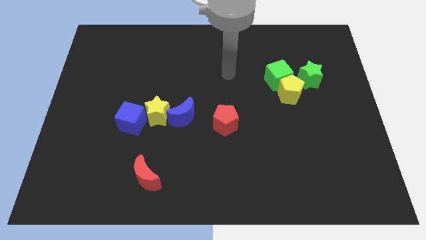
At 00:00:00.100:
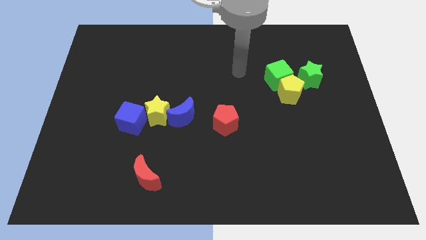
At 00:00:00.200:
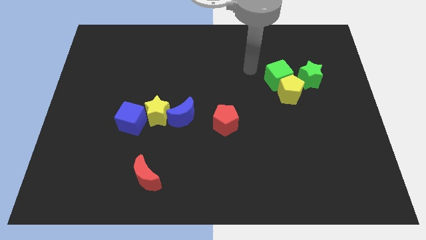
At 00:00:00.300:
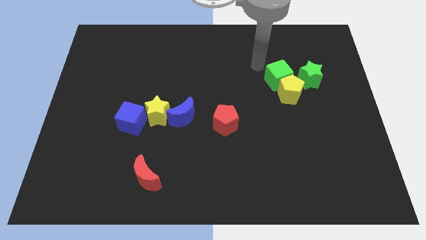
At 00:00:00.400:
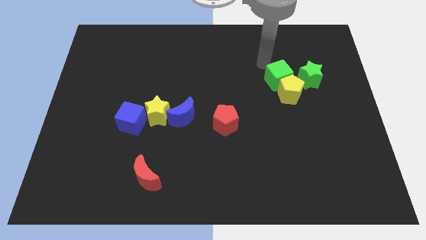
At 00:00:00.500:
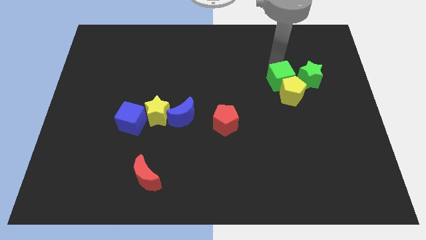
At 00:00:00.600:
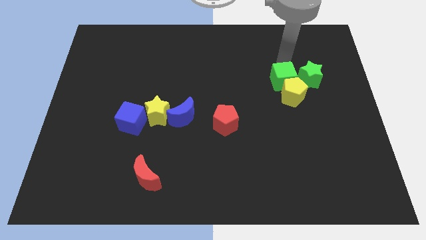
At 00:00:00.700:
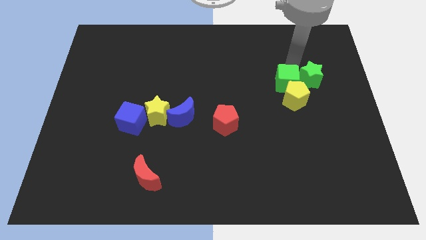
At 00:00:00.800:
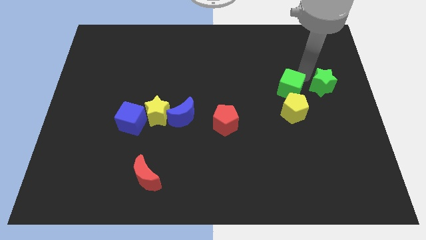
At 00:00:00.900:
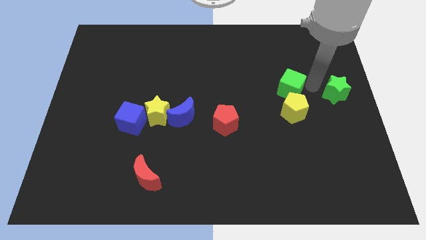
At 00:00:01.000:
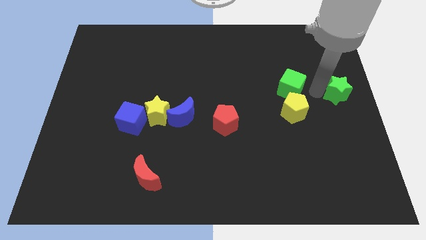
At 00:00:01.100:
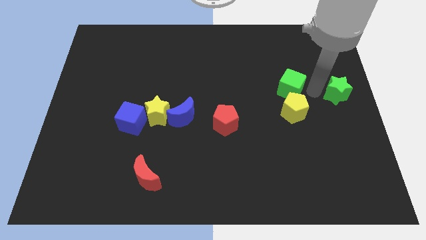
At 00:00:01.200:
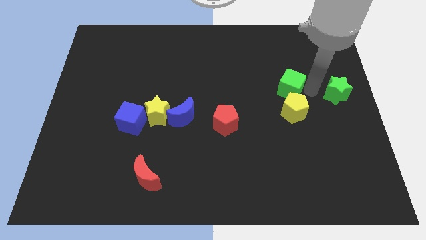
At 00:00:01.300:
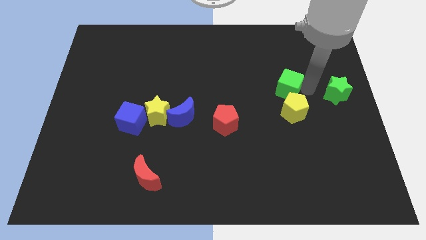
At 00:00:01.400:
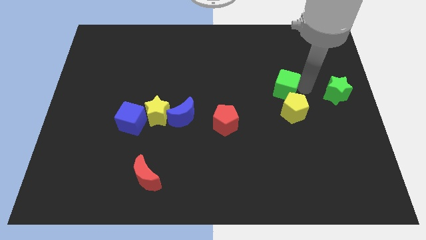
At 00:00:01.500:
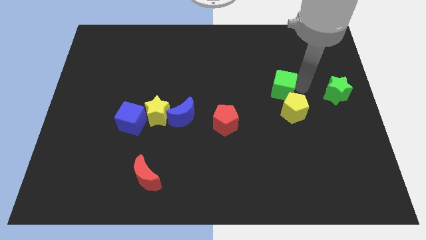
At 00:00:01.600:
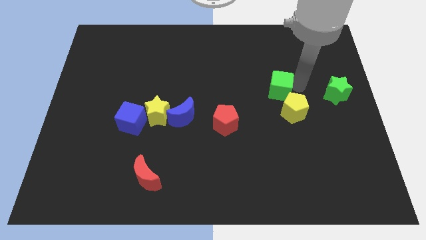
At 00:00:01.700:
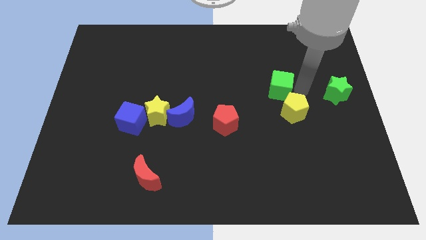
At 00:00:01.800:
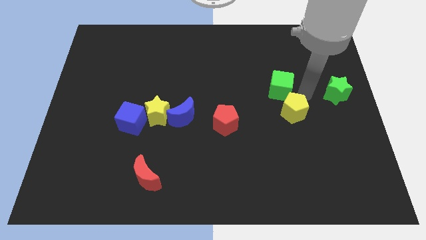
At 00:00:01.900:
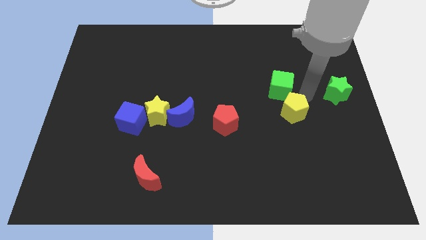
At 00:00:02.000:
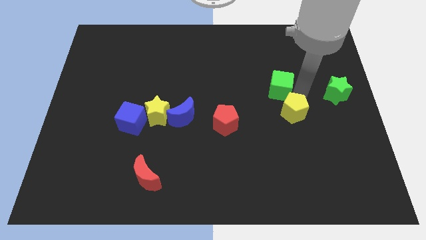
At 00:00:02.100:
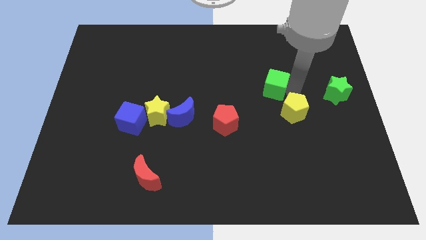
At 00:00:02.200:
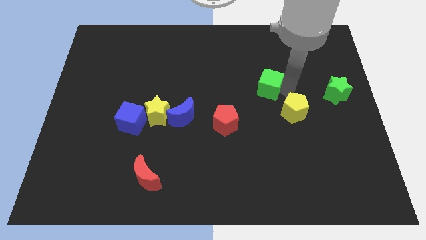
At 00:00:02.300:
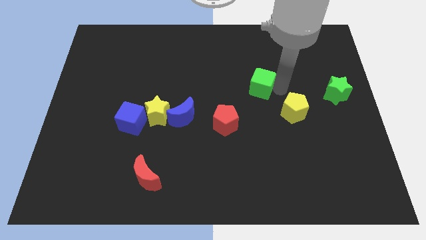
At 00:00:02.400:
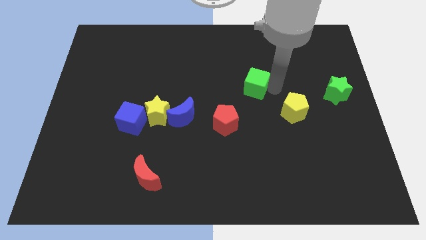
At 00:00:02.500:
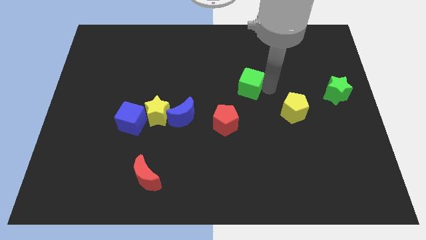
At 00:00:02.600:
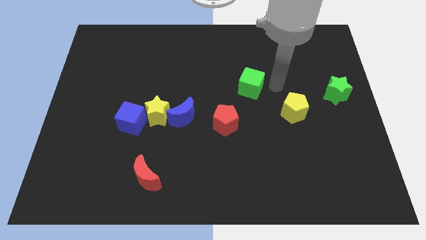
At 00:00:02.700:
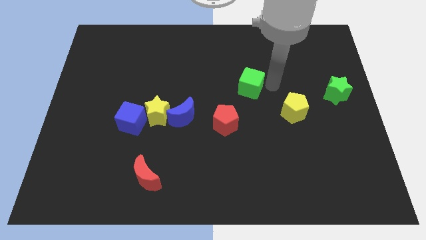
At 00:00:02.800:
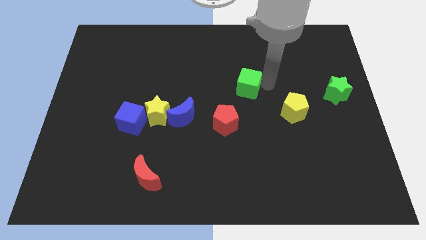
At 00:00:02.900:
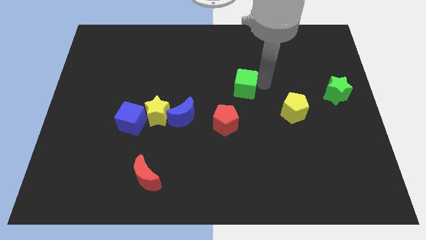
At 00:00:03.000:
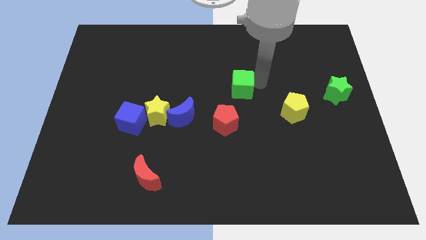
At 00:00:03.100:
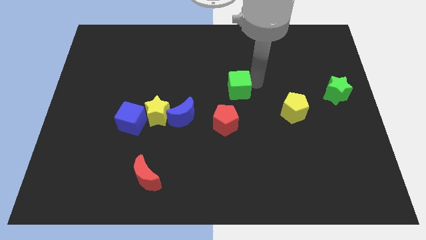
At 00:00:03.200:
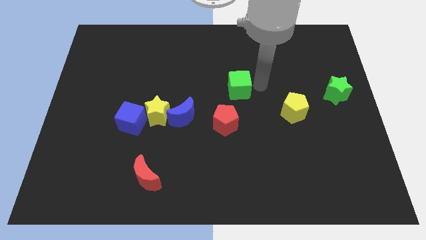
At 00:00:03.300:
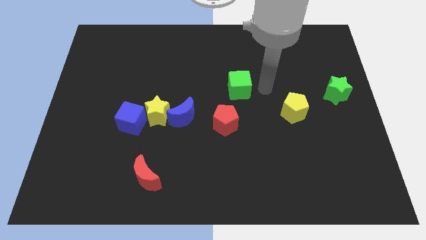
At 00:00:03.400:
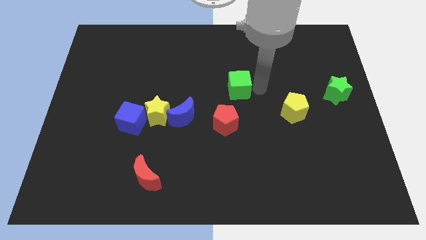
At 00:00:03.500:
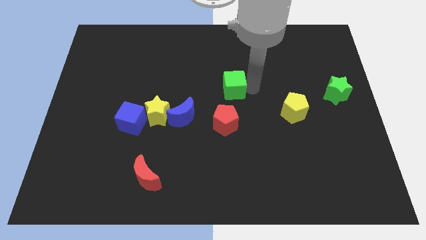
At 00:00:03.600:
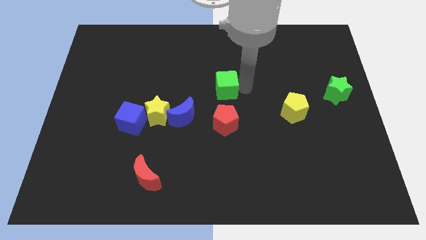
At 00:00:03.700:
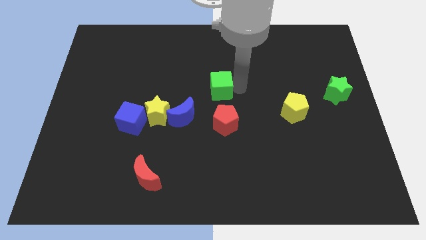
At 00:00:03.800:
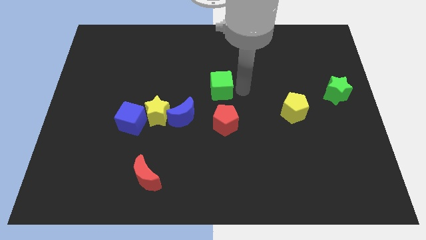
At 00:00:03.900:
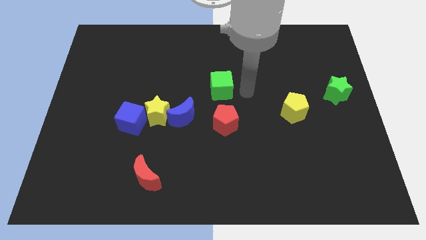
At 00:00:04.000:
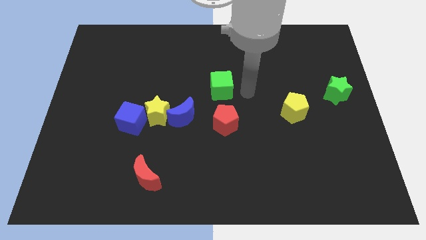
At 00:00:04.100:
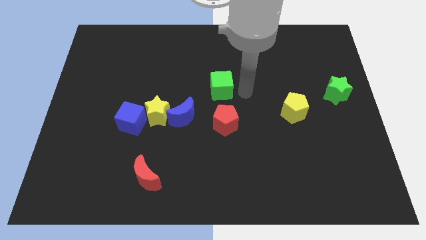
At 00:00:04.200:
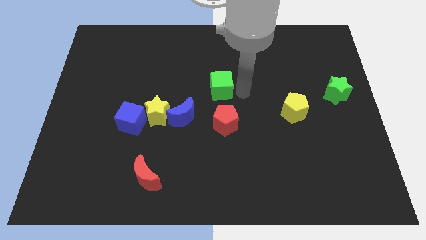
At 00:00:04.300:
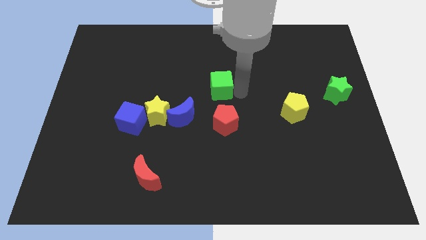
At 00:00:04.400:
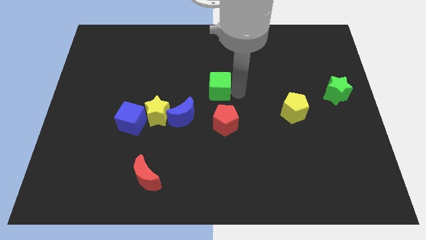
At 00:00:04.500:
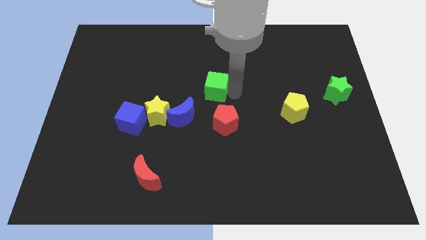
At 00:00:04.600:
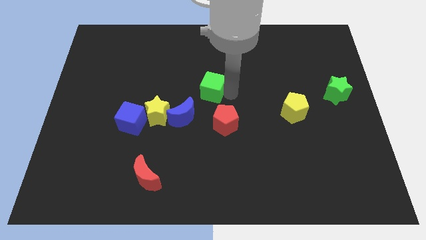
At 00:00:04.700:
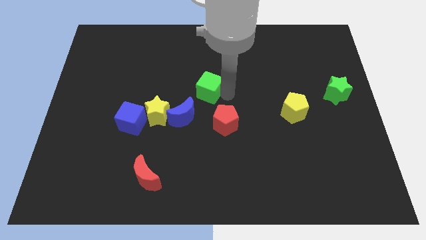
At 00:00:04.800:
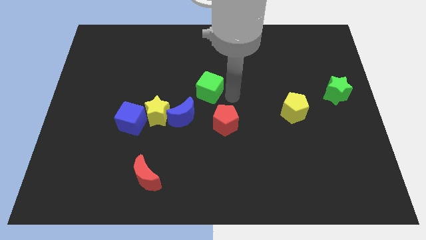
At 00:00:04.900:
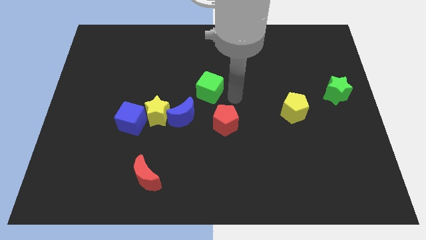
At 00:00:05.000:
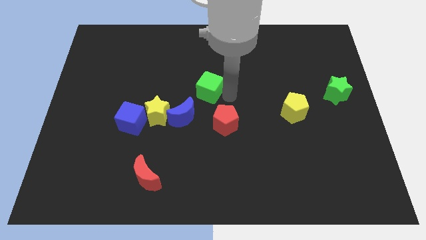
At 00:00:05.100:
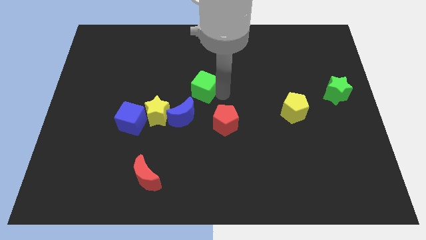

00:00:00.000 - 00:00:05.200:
move the green cube to the top side of the blue moon

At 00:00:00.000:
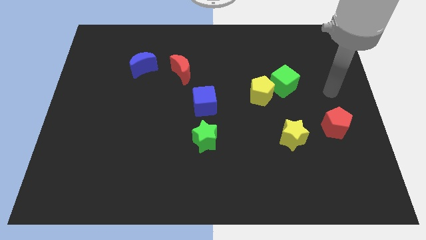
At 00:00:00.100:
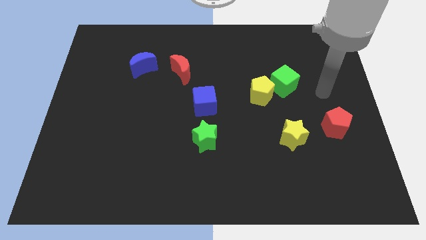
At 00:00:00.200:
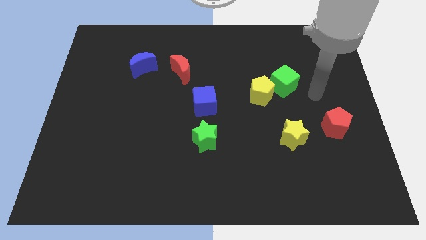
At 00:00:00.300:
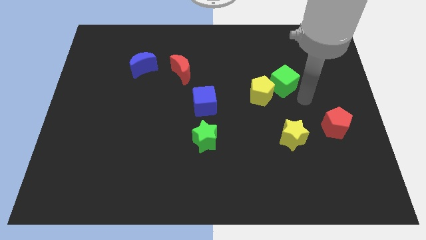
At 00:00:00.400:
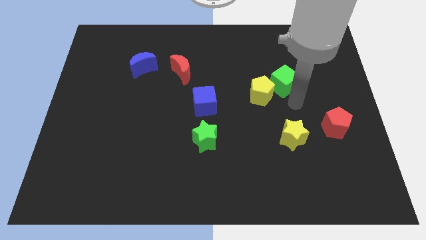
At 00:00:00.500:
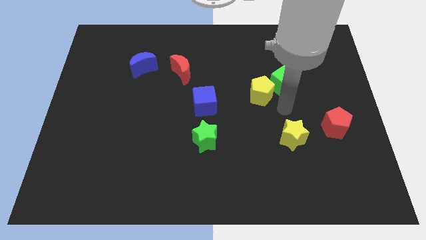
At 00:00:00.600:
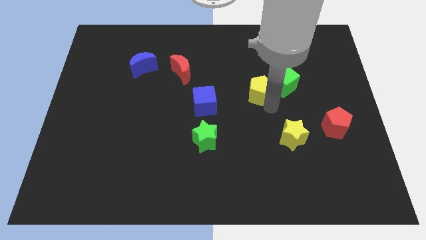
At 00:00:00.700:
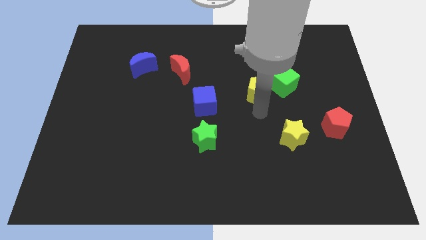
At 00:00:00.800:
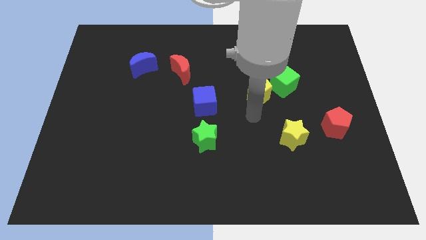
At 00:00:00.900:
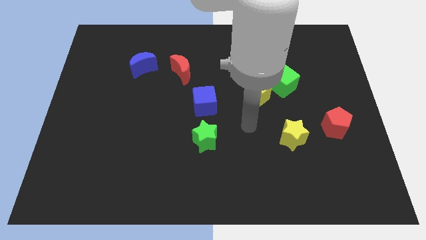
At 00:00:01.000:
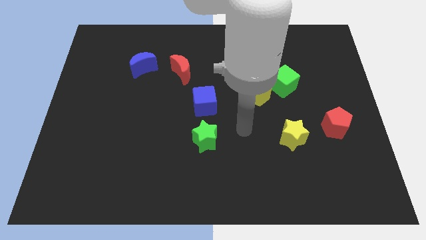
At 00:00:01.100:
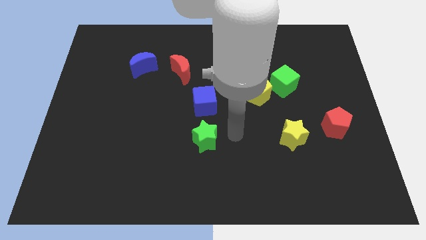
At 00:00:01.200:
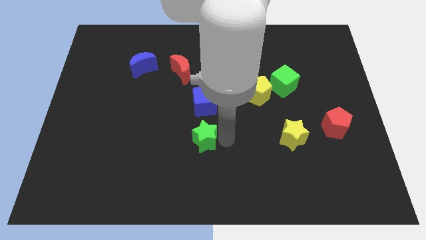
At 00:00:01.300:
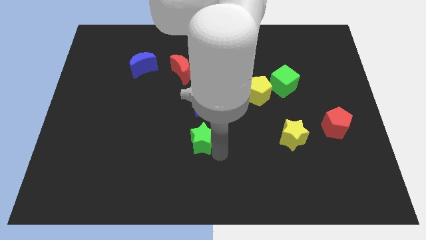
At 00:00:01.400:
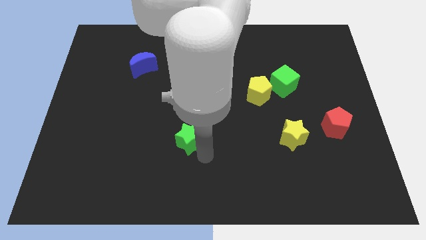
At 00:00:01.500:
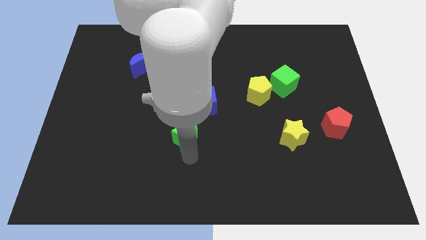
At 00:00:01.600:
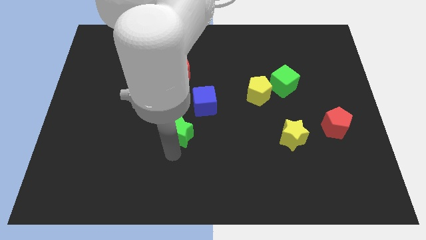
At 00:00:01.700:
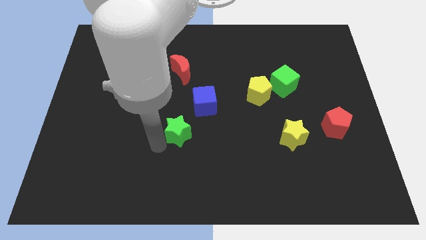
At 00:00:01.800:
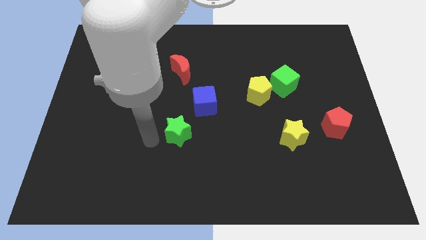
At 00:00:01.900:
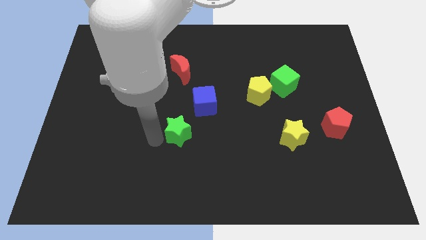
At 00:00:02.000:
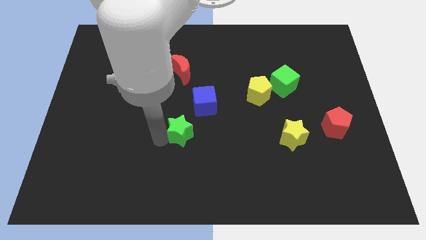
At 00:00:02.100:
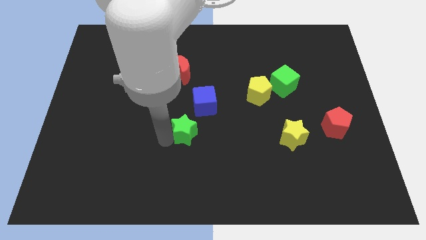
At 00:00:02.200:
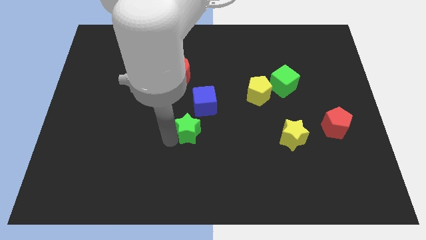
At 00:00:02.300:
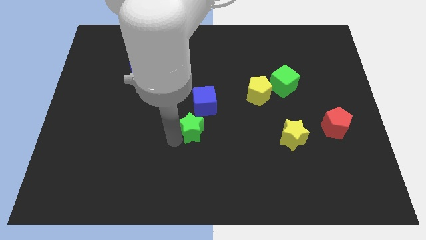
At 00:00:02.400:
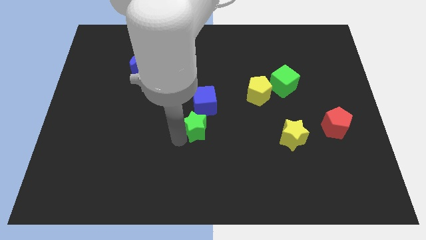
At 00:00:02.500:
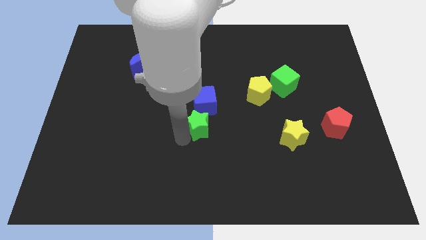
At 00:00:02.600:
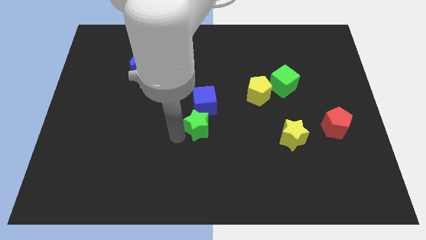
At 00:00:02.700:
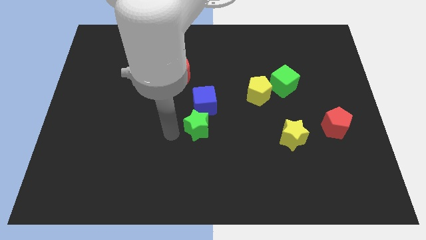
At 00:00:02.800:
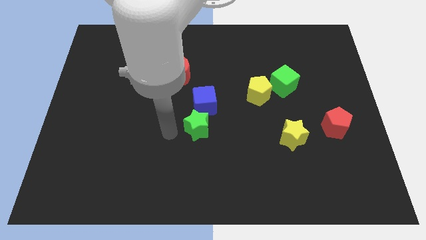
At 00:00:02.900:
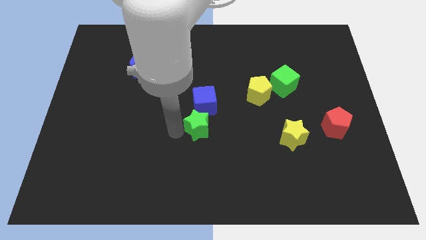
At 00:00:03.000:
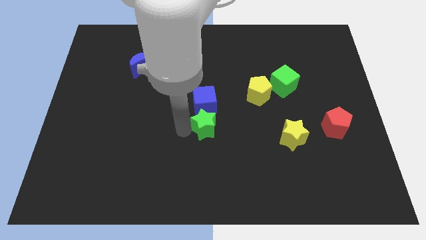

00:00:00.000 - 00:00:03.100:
put the green star to the bottom right side of the blue cube
